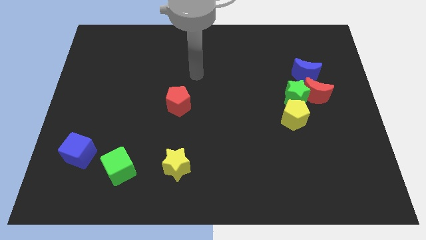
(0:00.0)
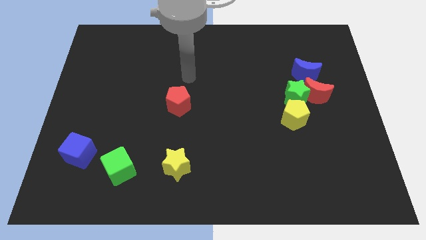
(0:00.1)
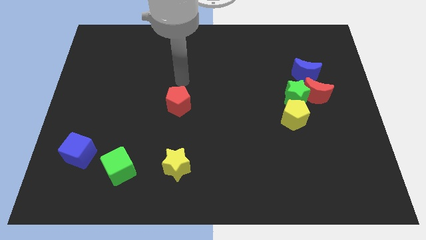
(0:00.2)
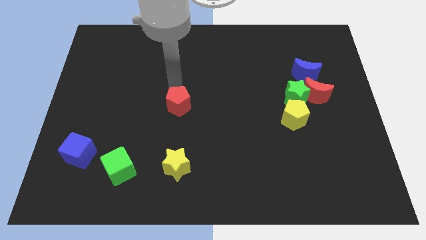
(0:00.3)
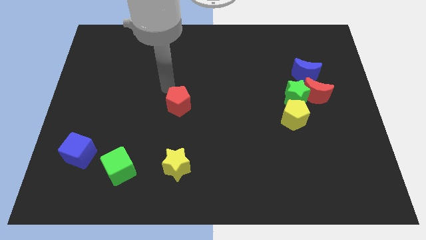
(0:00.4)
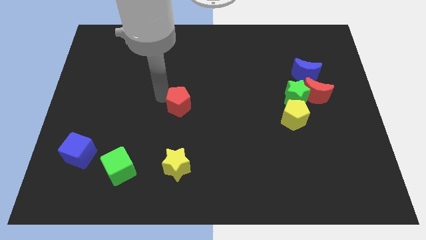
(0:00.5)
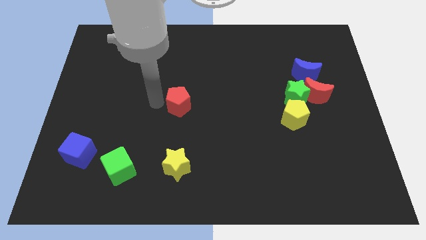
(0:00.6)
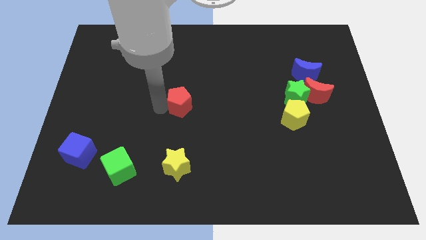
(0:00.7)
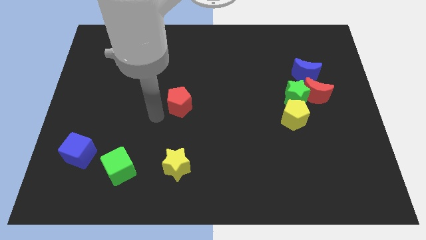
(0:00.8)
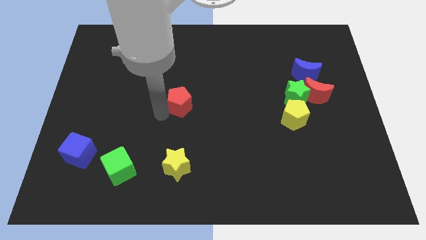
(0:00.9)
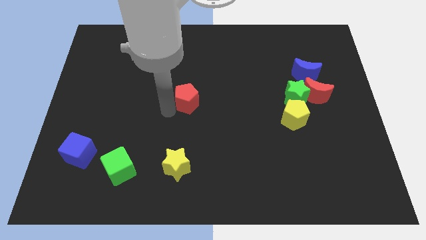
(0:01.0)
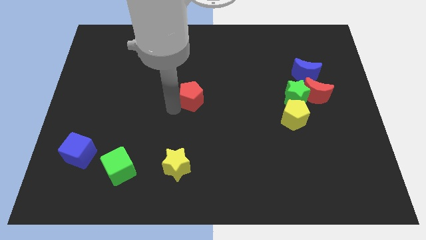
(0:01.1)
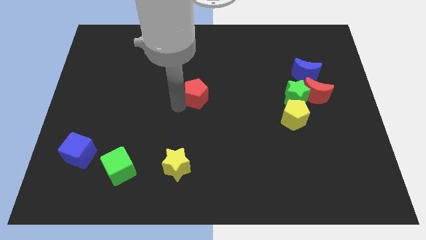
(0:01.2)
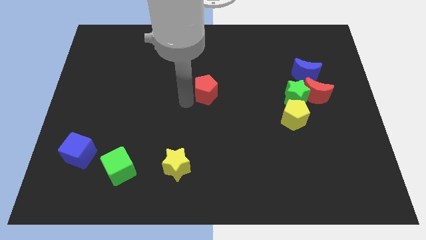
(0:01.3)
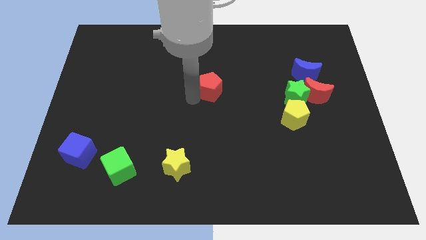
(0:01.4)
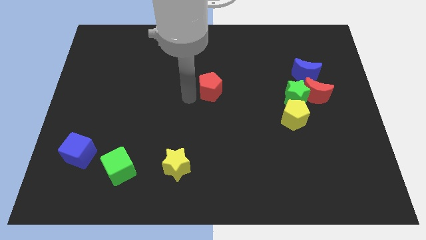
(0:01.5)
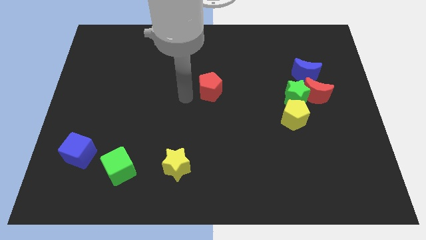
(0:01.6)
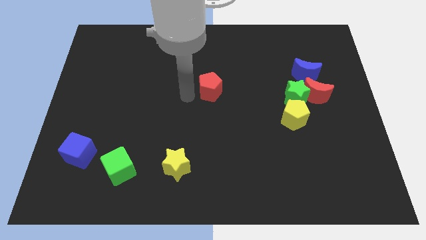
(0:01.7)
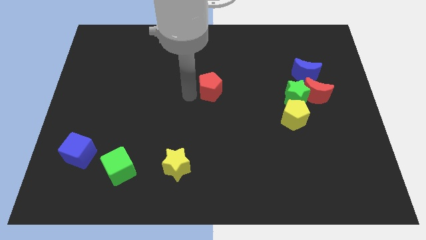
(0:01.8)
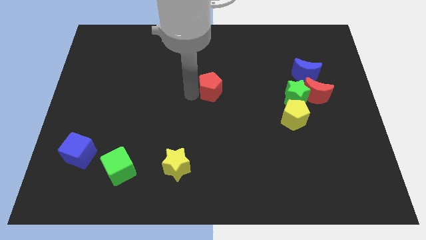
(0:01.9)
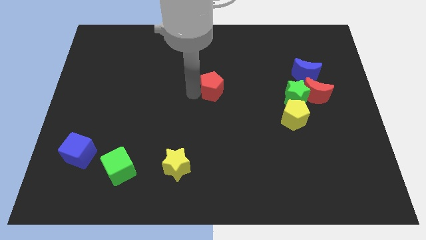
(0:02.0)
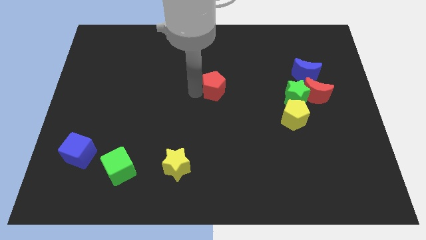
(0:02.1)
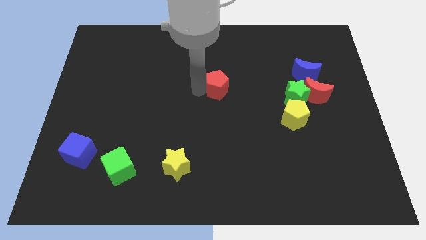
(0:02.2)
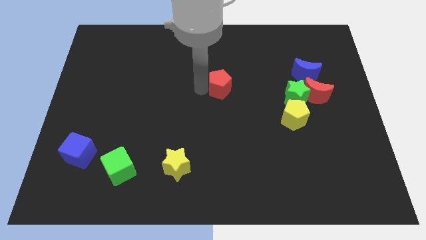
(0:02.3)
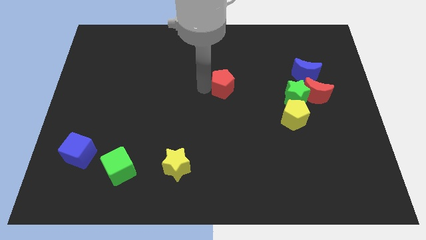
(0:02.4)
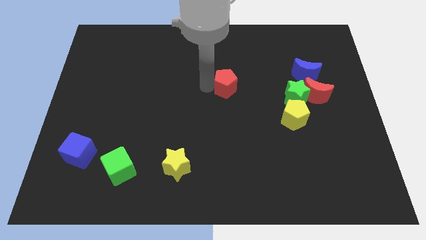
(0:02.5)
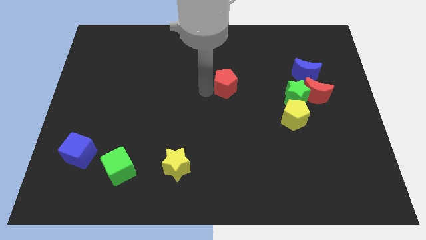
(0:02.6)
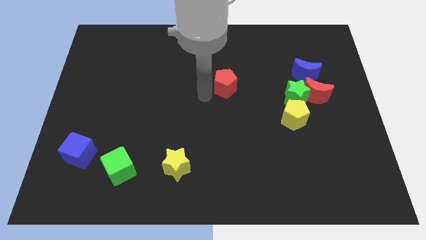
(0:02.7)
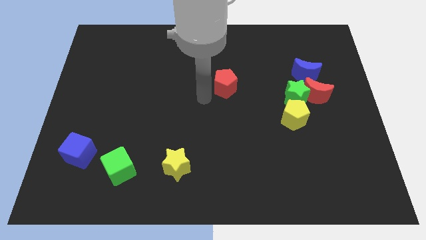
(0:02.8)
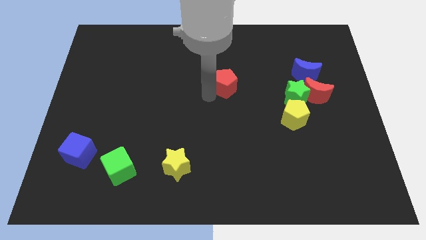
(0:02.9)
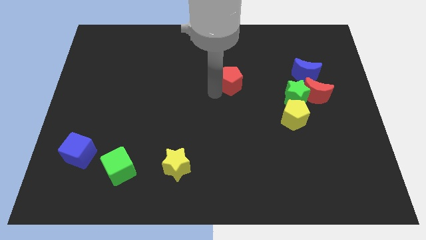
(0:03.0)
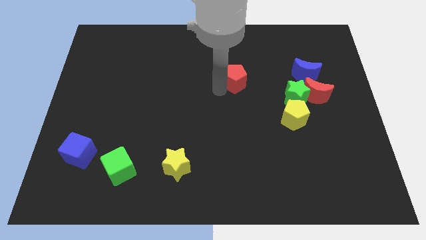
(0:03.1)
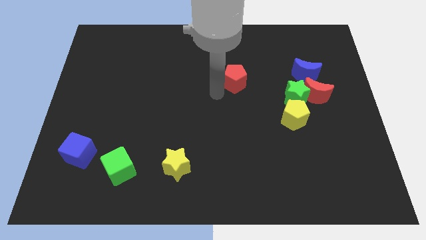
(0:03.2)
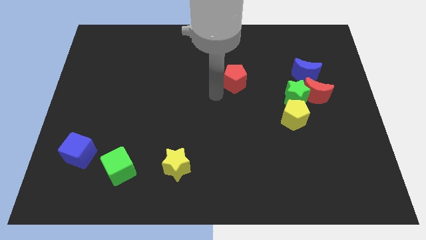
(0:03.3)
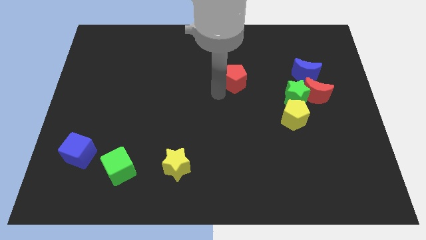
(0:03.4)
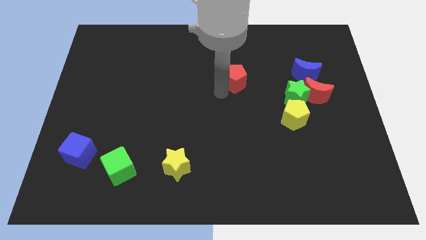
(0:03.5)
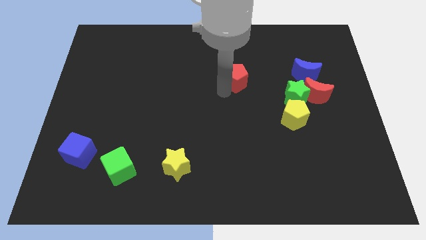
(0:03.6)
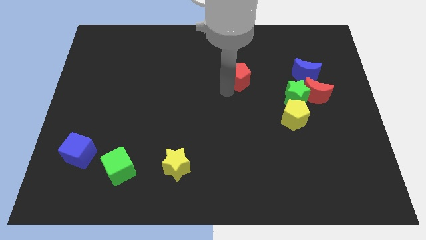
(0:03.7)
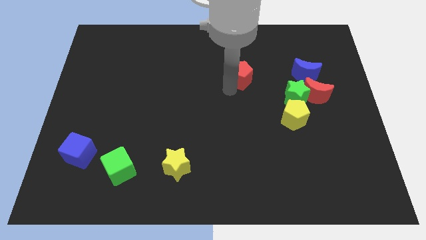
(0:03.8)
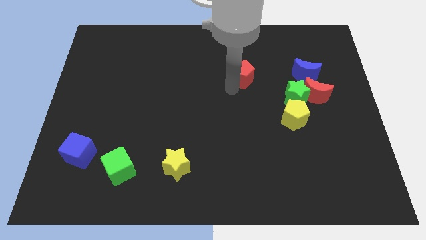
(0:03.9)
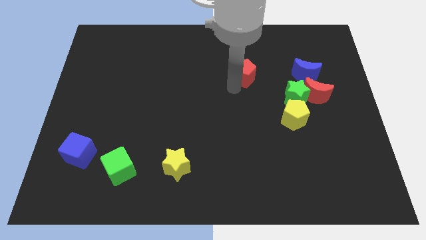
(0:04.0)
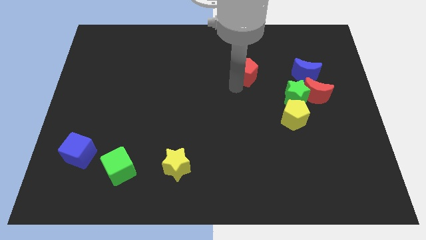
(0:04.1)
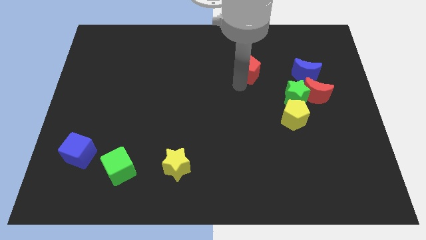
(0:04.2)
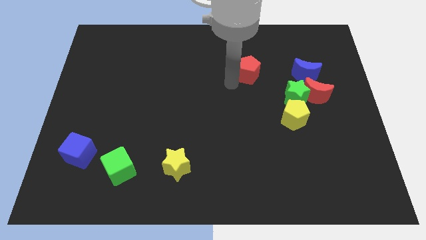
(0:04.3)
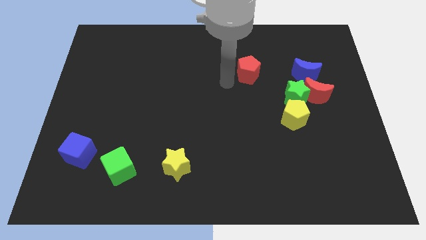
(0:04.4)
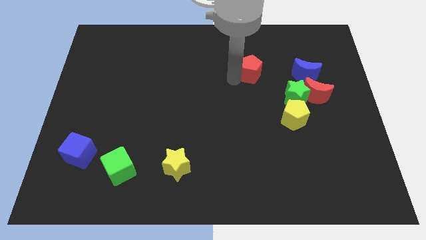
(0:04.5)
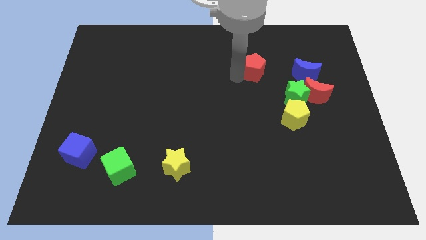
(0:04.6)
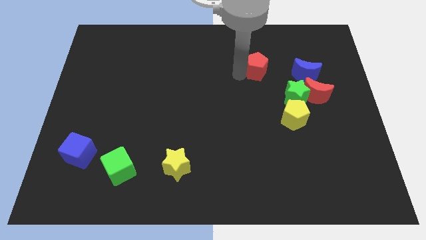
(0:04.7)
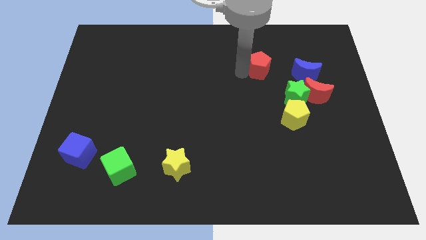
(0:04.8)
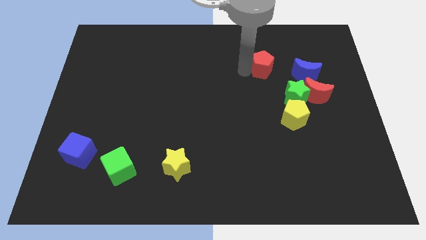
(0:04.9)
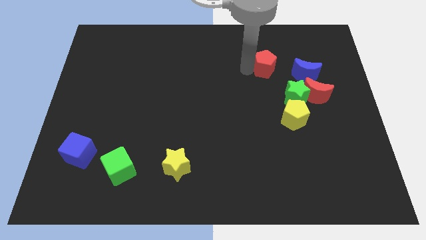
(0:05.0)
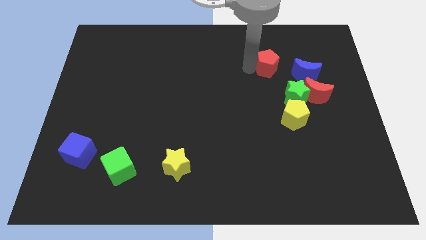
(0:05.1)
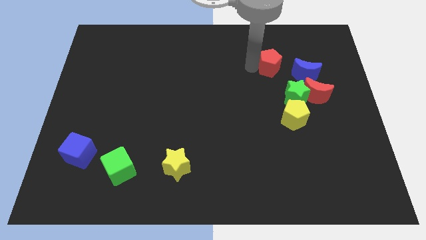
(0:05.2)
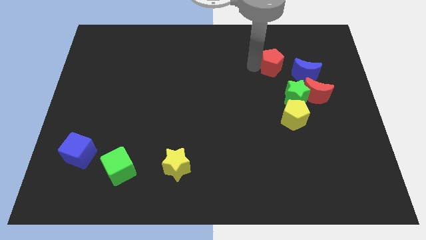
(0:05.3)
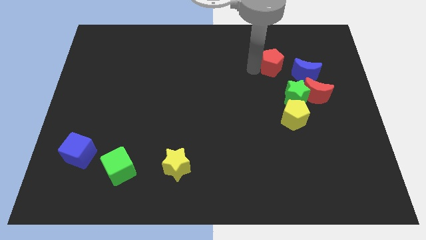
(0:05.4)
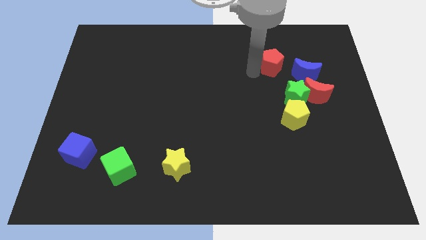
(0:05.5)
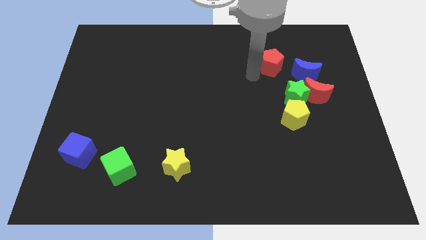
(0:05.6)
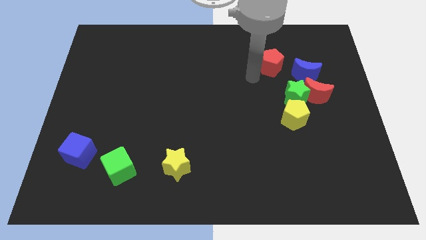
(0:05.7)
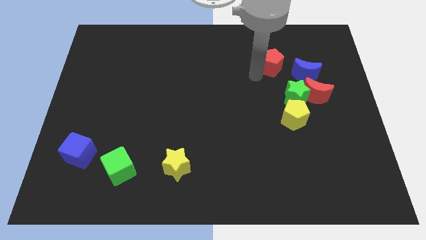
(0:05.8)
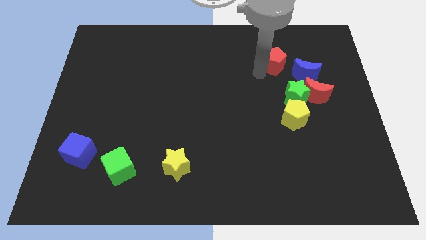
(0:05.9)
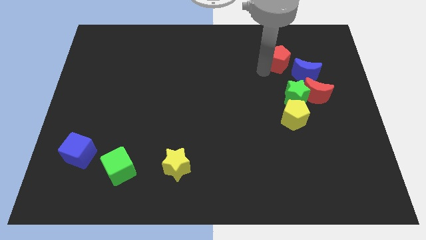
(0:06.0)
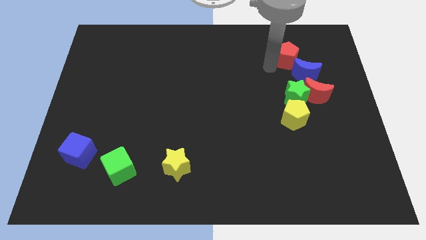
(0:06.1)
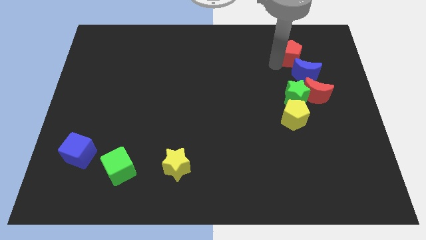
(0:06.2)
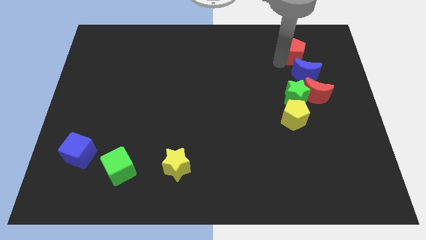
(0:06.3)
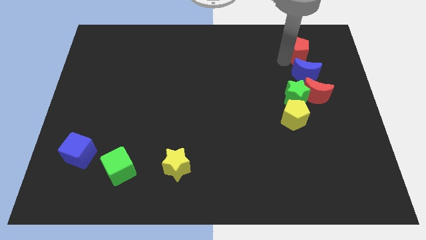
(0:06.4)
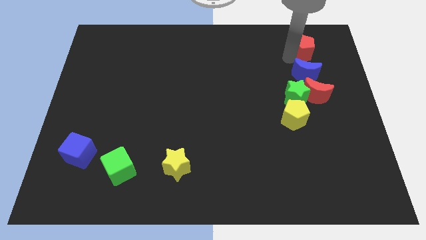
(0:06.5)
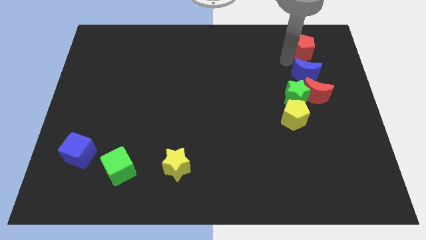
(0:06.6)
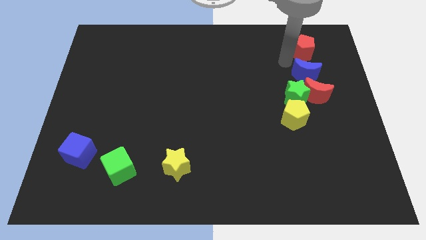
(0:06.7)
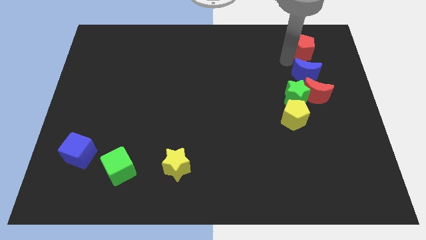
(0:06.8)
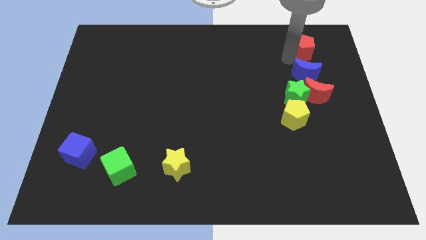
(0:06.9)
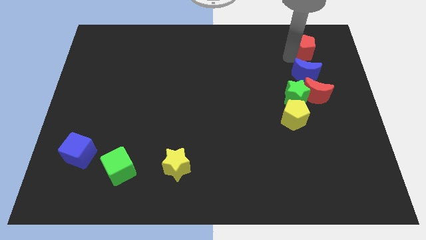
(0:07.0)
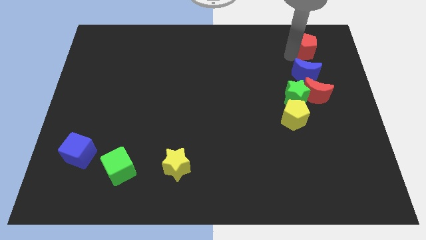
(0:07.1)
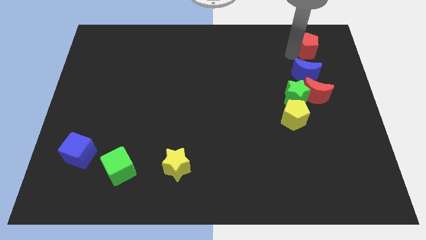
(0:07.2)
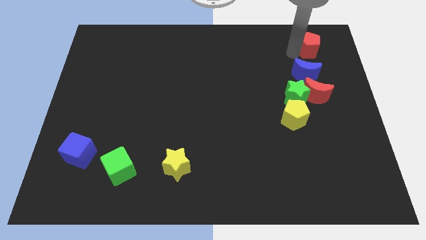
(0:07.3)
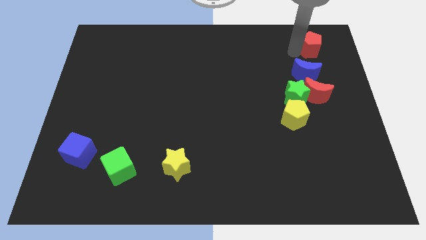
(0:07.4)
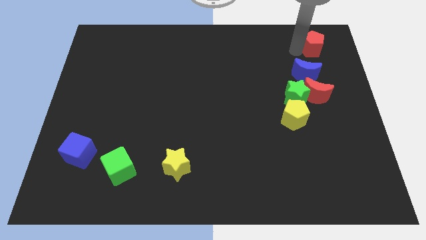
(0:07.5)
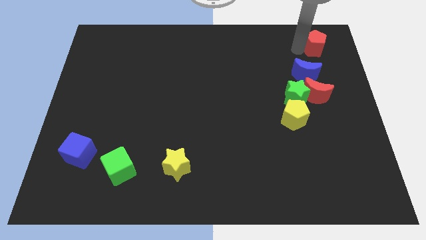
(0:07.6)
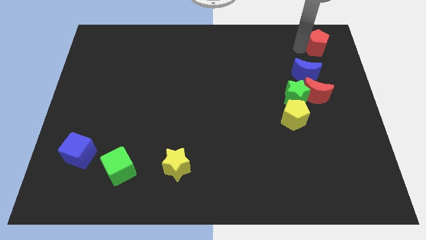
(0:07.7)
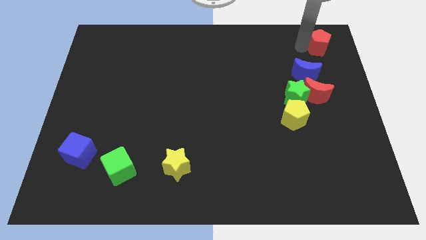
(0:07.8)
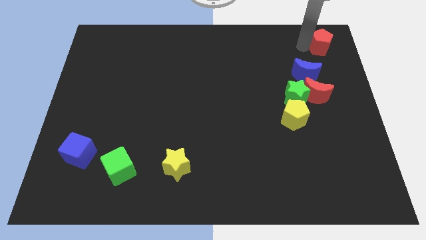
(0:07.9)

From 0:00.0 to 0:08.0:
push the red pentagon to the top right corner
